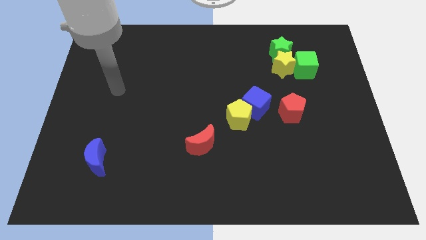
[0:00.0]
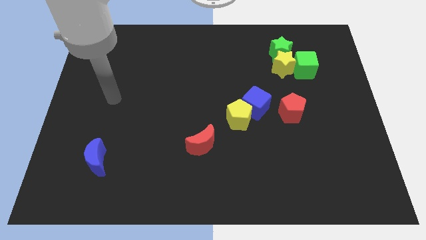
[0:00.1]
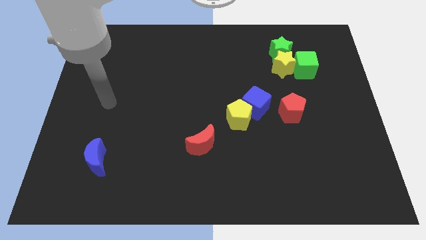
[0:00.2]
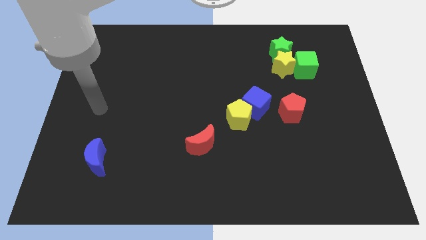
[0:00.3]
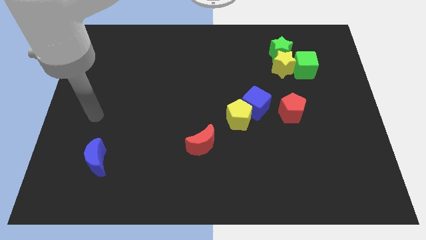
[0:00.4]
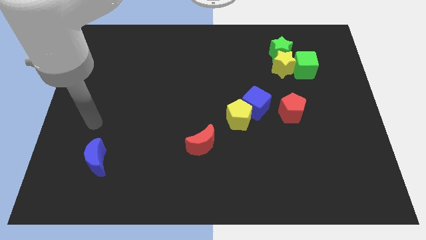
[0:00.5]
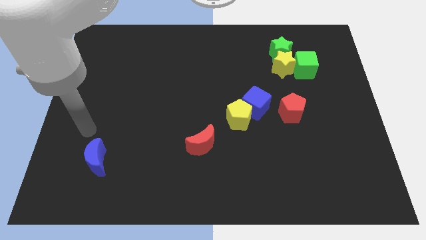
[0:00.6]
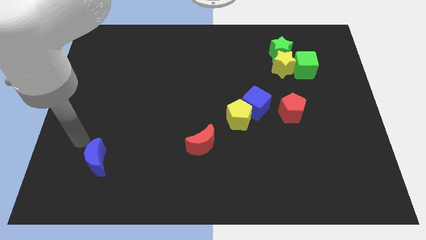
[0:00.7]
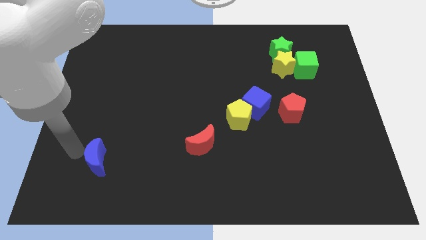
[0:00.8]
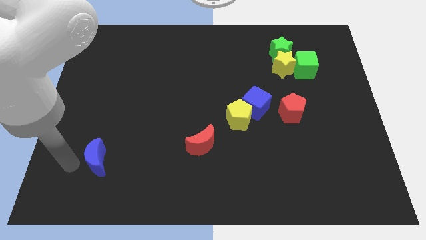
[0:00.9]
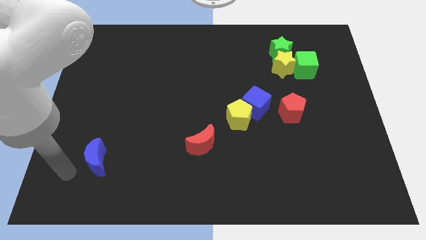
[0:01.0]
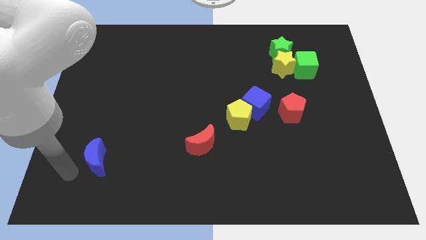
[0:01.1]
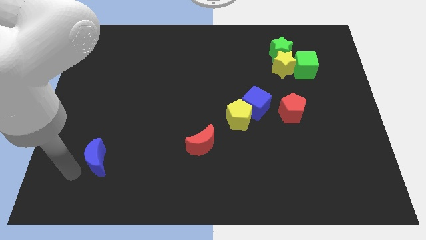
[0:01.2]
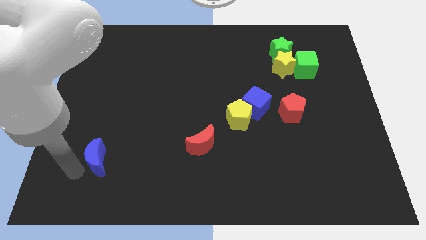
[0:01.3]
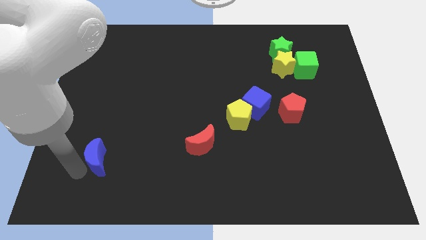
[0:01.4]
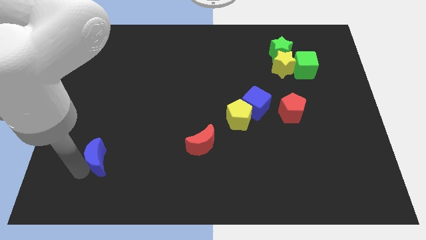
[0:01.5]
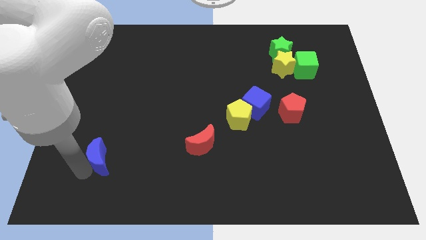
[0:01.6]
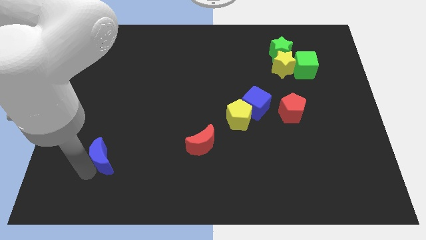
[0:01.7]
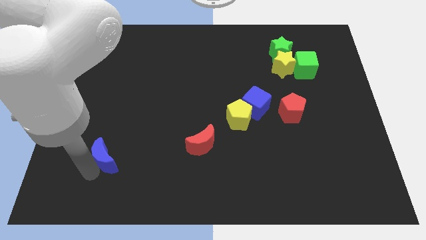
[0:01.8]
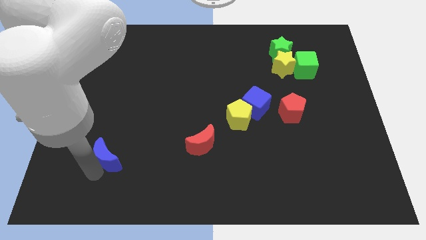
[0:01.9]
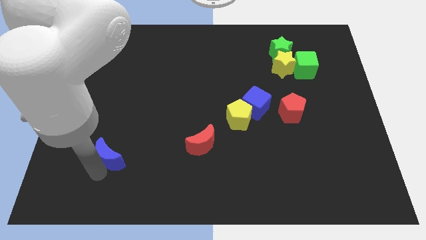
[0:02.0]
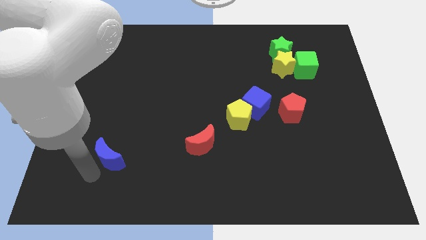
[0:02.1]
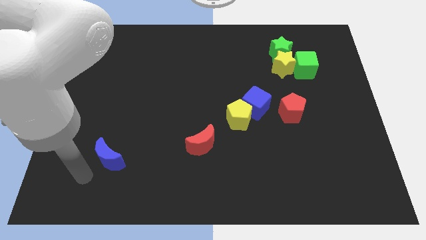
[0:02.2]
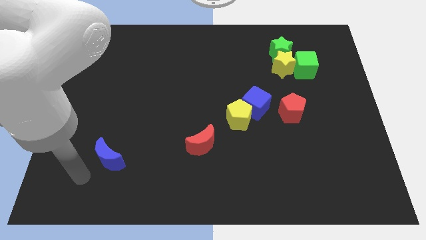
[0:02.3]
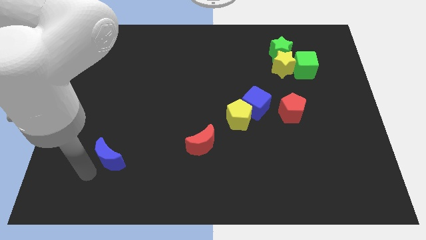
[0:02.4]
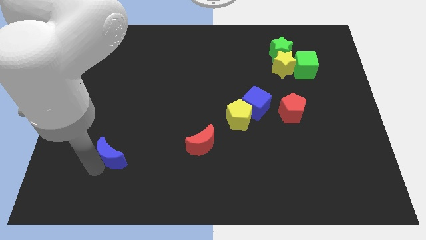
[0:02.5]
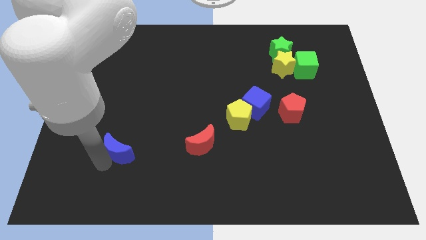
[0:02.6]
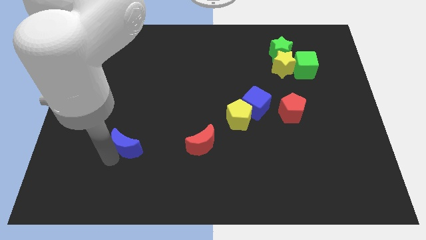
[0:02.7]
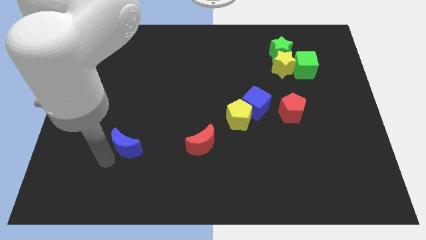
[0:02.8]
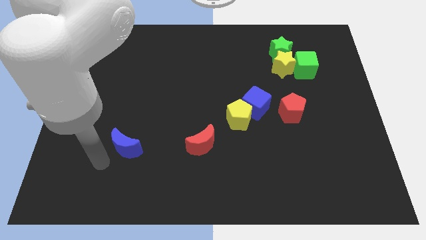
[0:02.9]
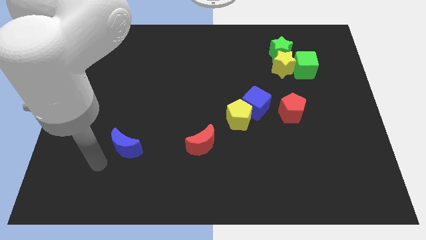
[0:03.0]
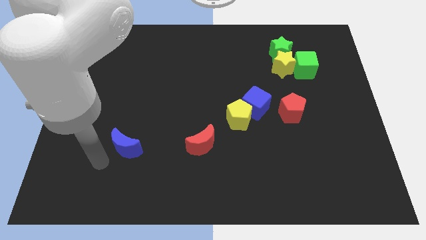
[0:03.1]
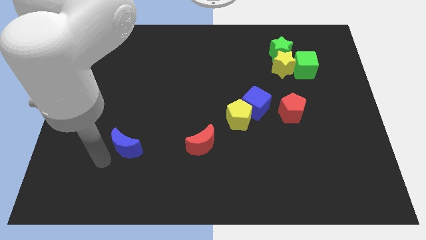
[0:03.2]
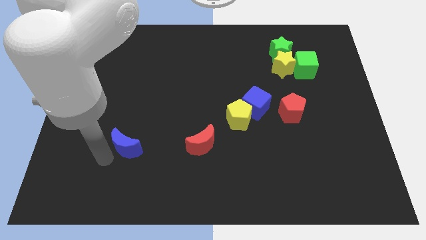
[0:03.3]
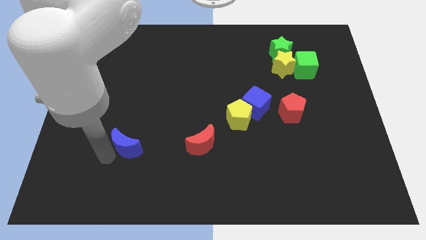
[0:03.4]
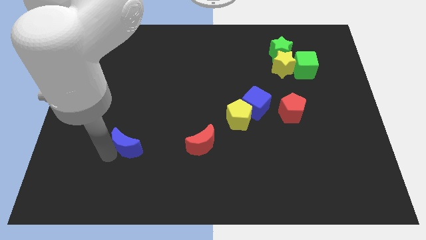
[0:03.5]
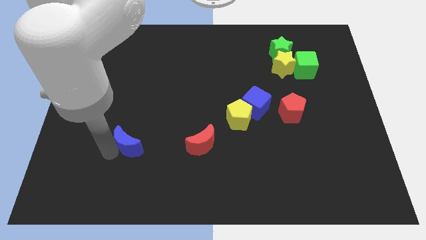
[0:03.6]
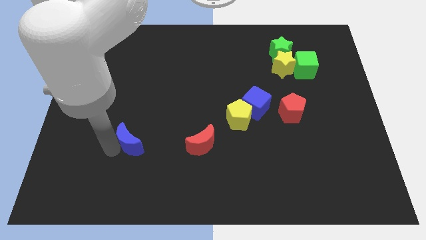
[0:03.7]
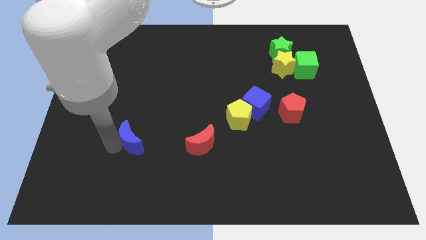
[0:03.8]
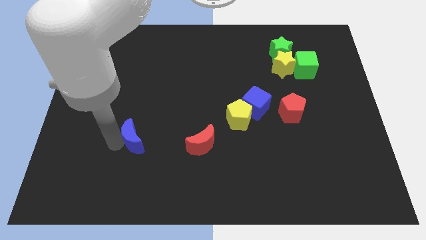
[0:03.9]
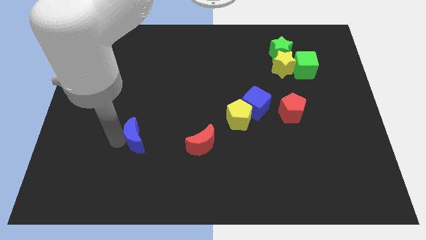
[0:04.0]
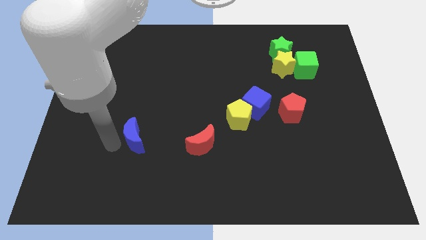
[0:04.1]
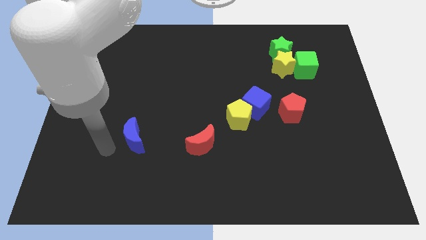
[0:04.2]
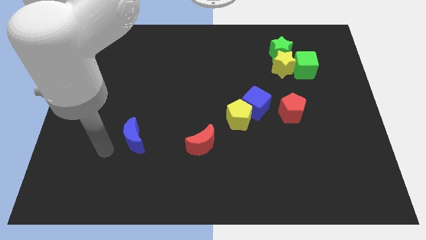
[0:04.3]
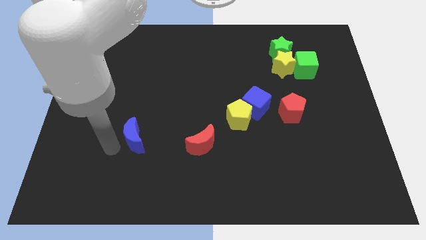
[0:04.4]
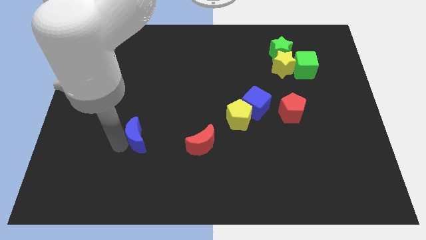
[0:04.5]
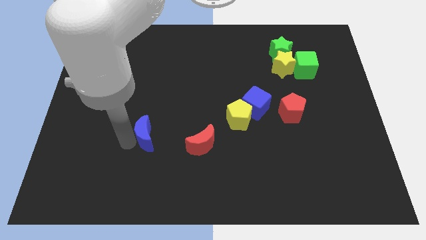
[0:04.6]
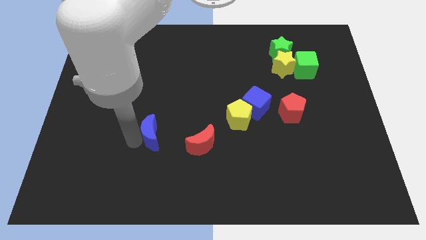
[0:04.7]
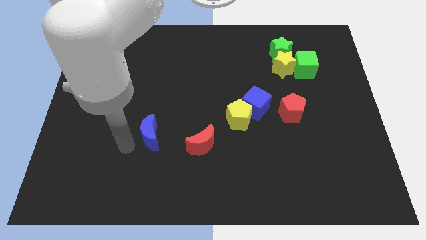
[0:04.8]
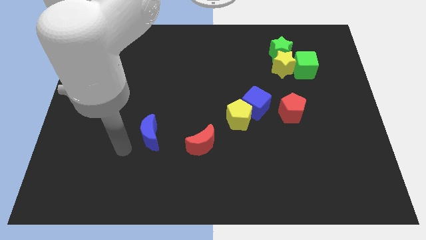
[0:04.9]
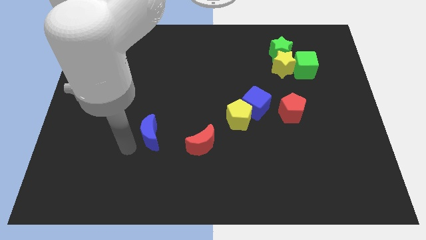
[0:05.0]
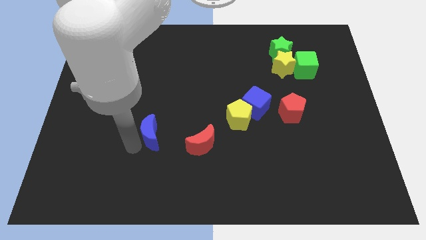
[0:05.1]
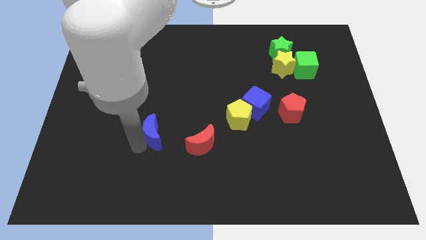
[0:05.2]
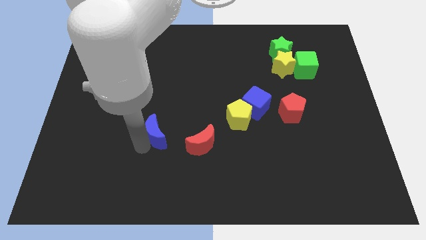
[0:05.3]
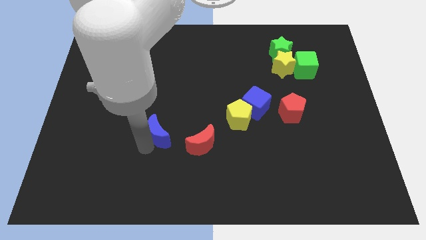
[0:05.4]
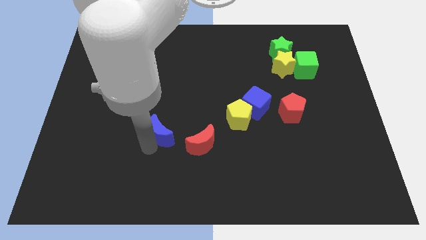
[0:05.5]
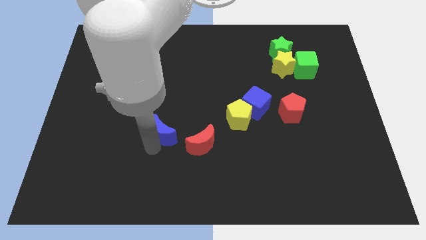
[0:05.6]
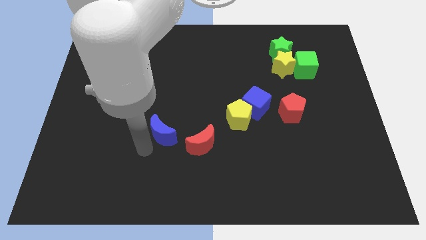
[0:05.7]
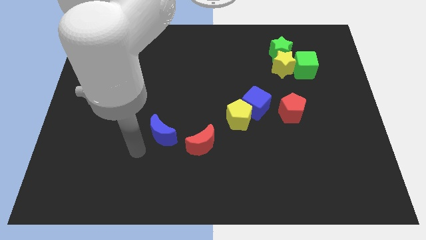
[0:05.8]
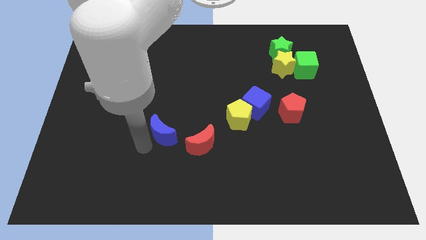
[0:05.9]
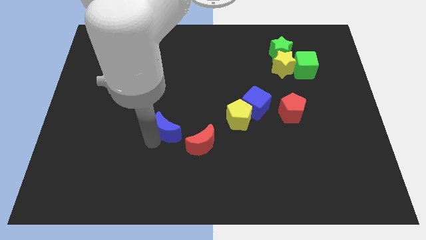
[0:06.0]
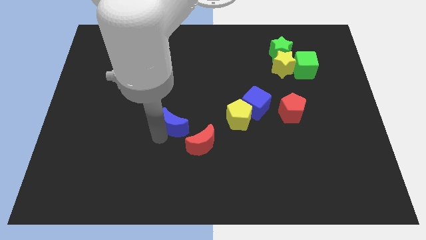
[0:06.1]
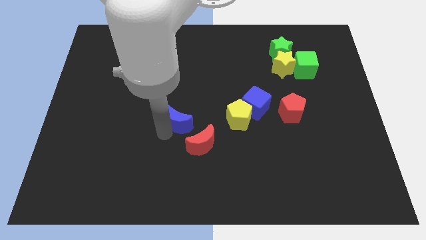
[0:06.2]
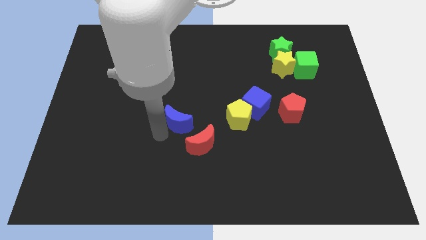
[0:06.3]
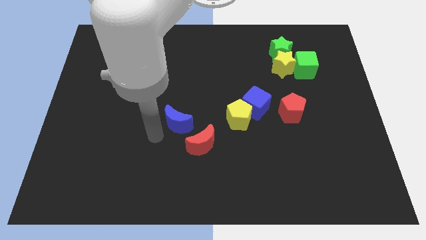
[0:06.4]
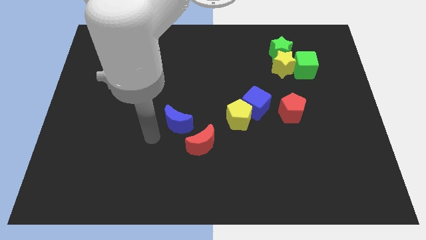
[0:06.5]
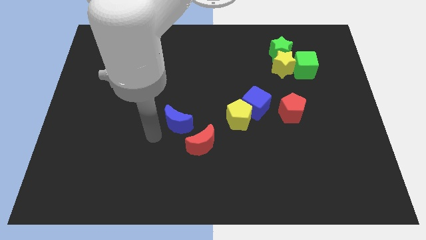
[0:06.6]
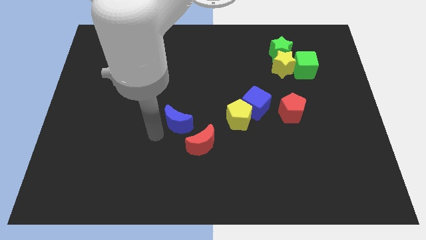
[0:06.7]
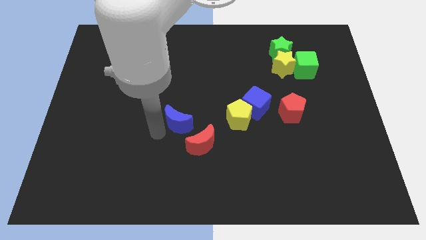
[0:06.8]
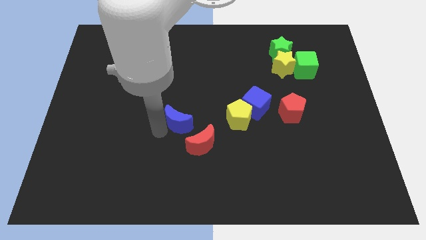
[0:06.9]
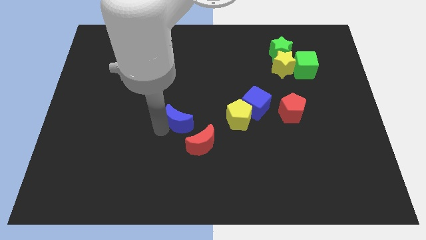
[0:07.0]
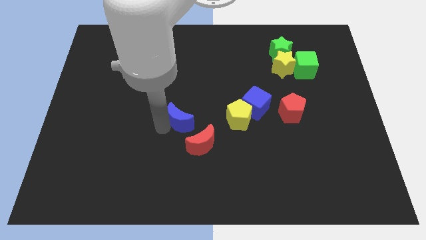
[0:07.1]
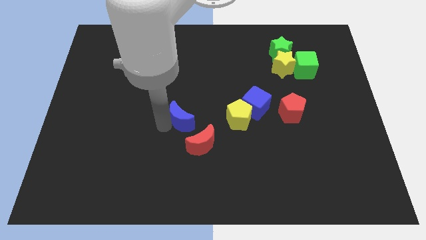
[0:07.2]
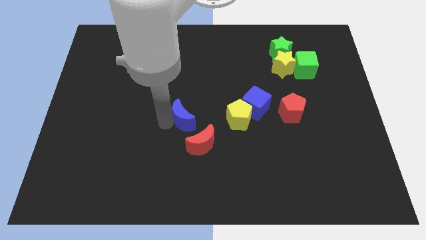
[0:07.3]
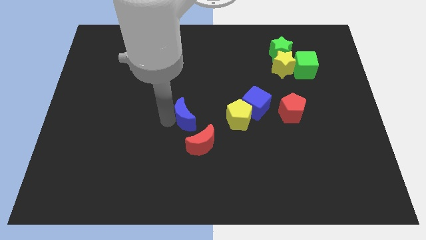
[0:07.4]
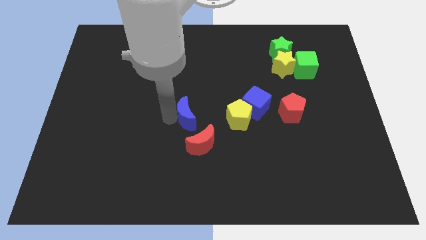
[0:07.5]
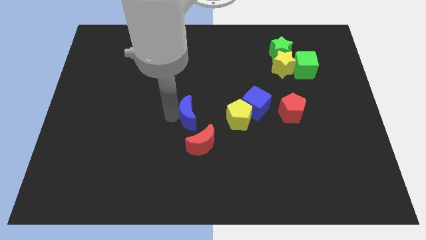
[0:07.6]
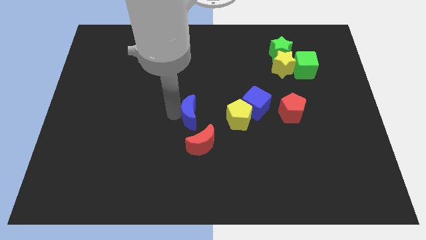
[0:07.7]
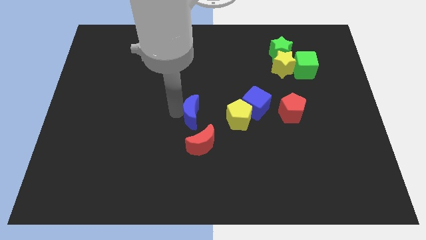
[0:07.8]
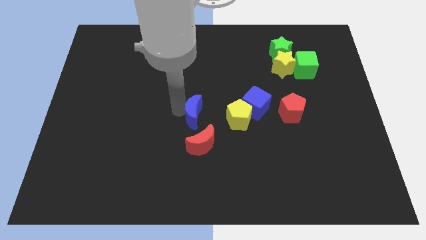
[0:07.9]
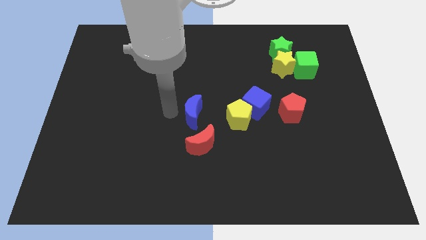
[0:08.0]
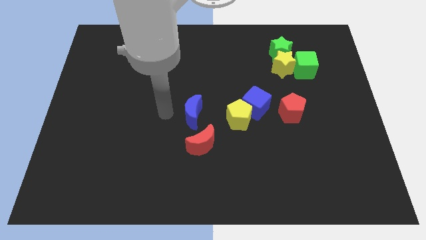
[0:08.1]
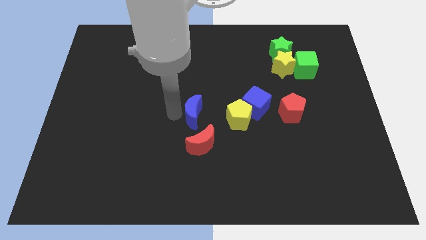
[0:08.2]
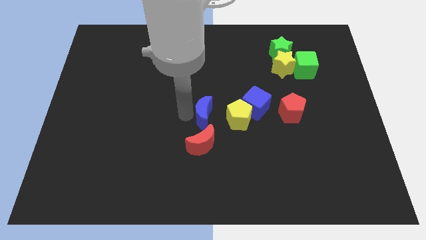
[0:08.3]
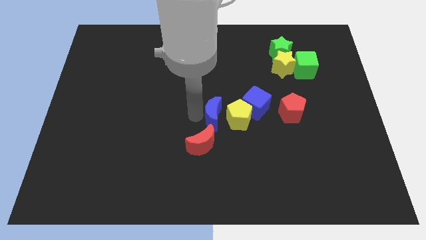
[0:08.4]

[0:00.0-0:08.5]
put the blue moon close to the yellow pentagon
